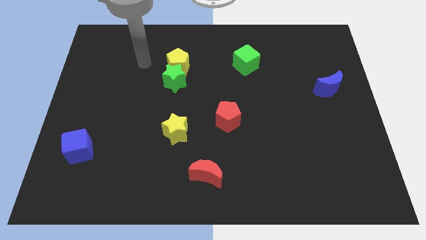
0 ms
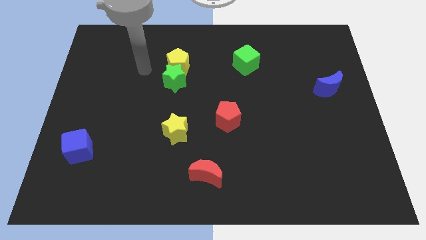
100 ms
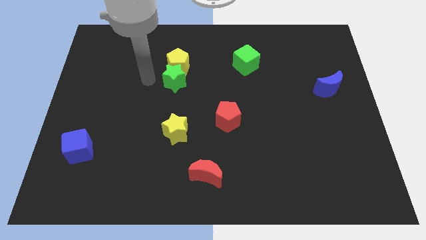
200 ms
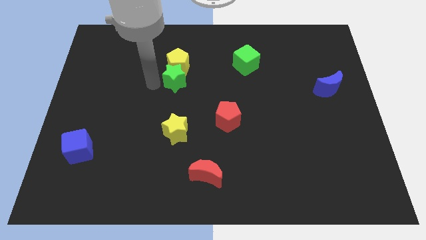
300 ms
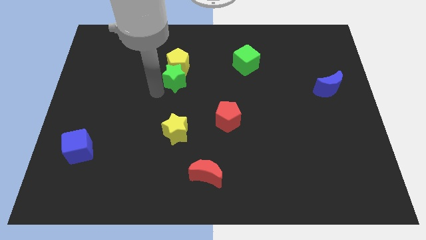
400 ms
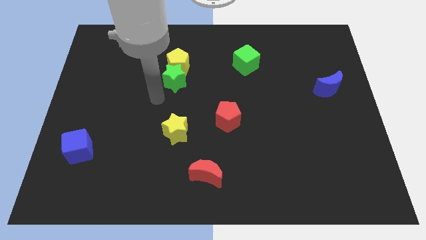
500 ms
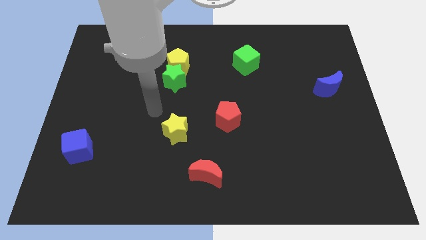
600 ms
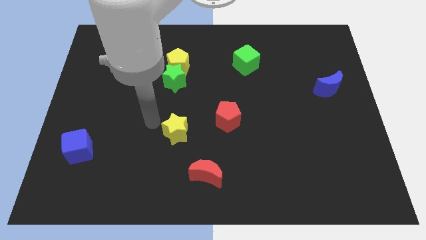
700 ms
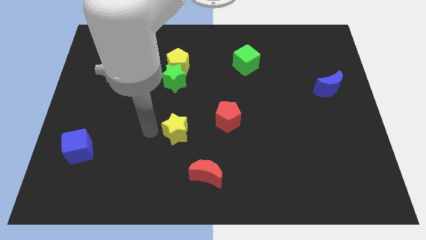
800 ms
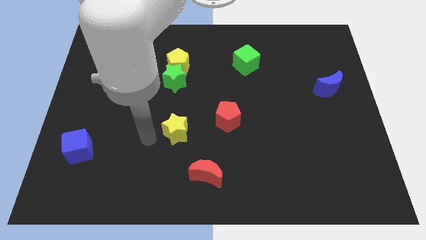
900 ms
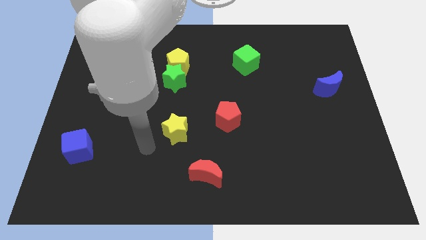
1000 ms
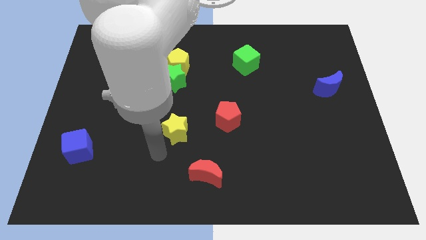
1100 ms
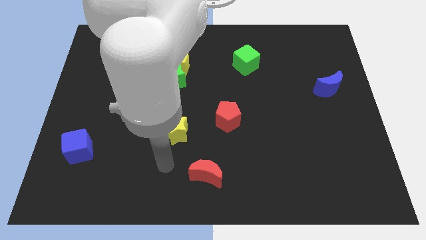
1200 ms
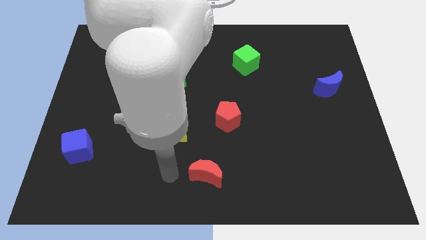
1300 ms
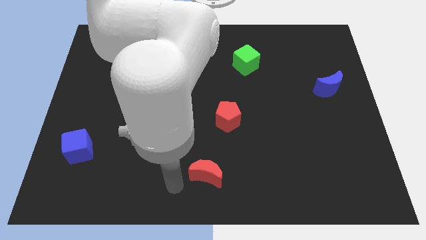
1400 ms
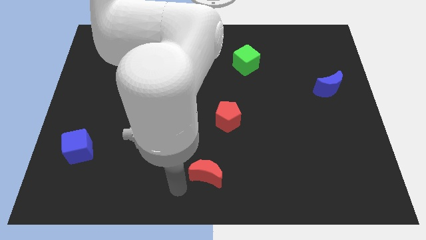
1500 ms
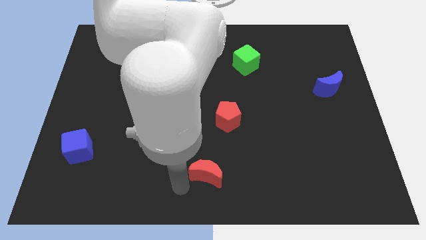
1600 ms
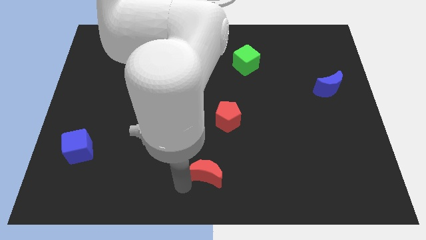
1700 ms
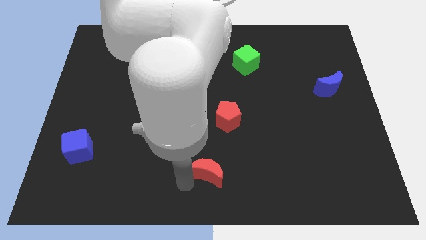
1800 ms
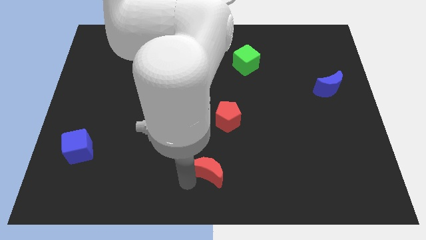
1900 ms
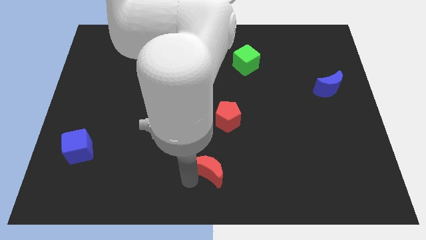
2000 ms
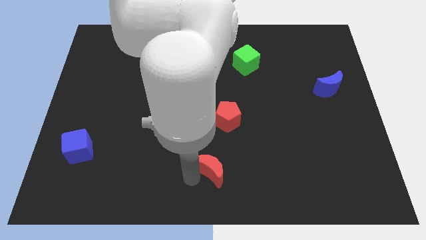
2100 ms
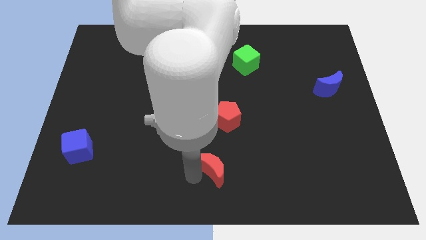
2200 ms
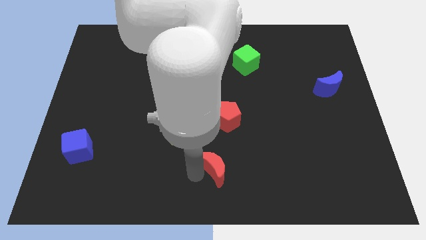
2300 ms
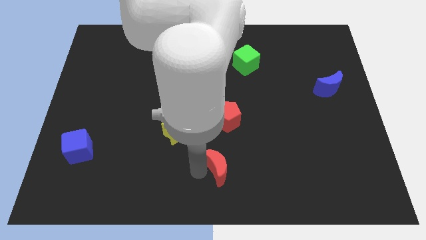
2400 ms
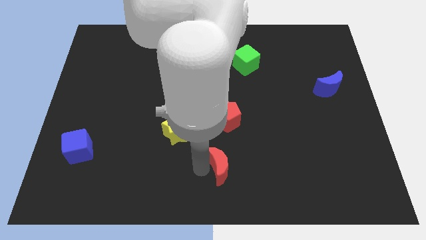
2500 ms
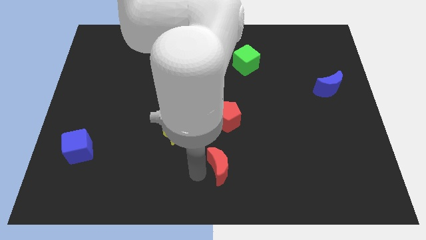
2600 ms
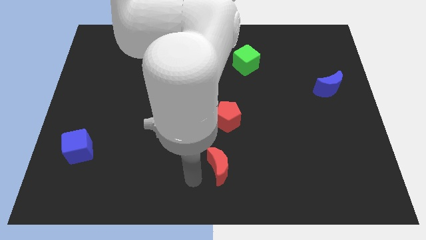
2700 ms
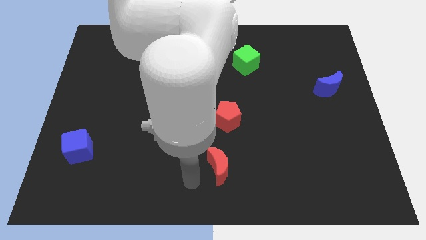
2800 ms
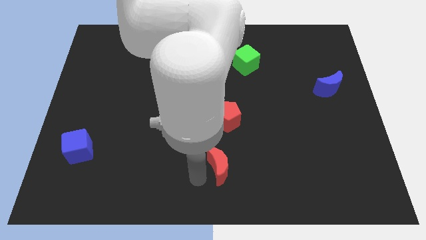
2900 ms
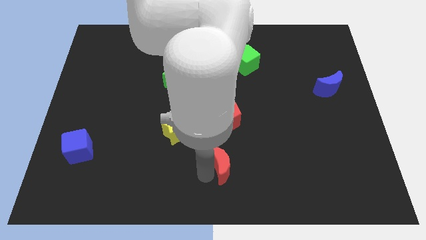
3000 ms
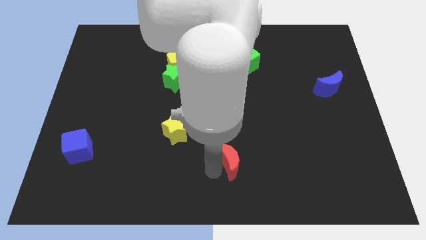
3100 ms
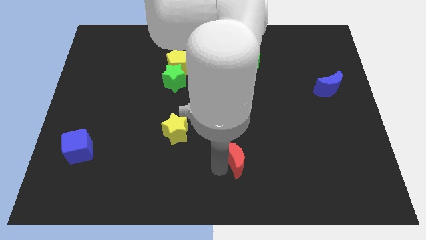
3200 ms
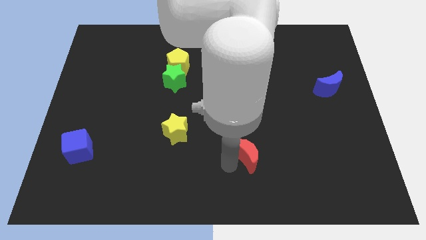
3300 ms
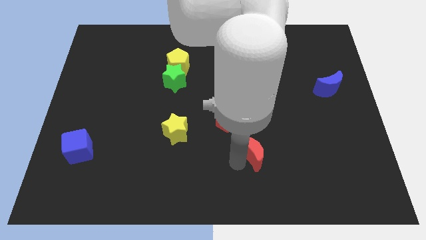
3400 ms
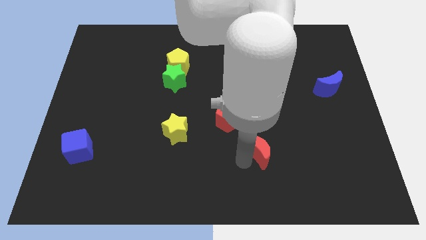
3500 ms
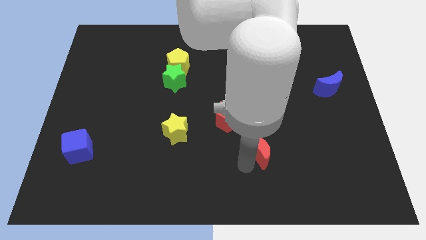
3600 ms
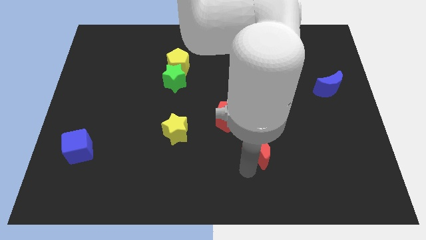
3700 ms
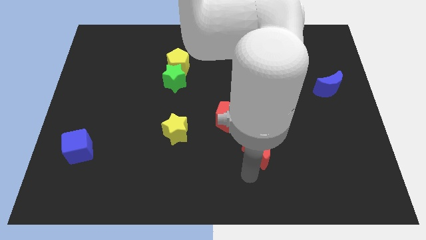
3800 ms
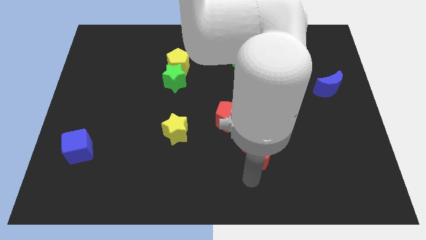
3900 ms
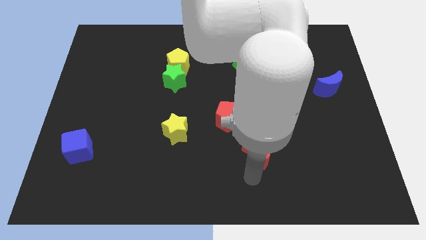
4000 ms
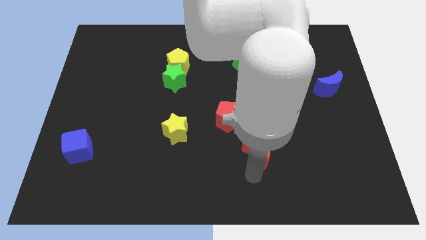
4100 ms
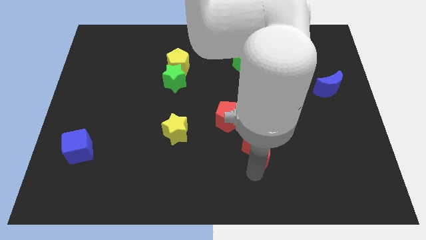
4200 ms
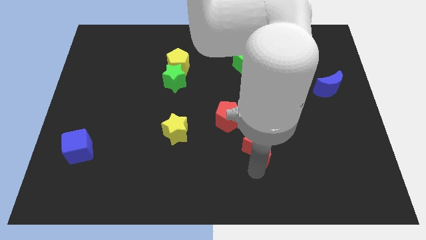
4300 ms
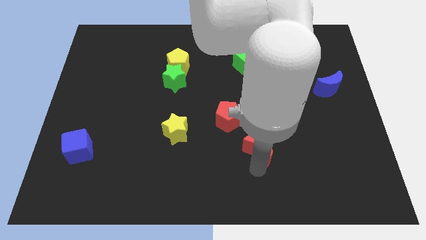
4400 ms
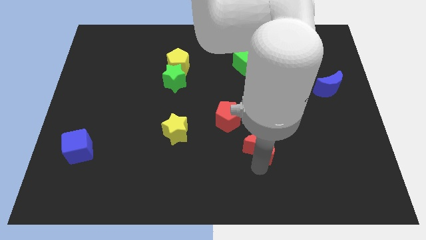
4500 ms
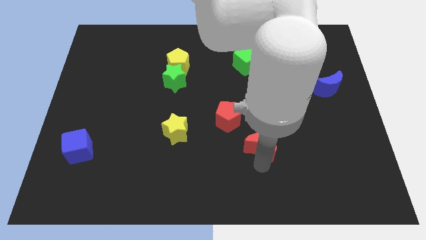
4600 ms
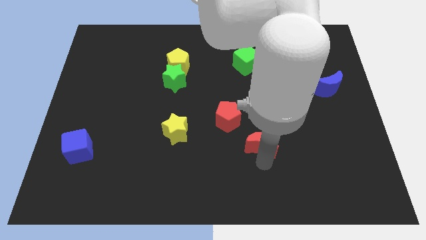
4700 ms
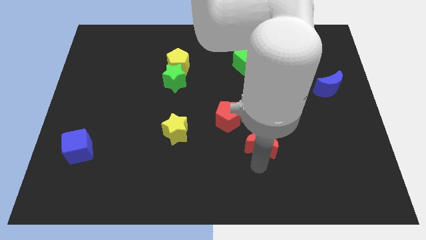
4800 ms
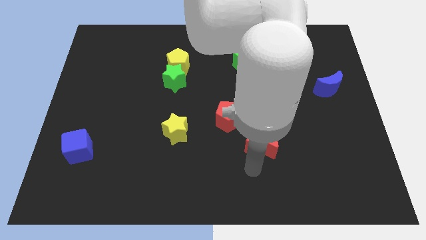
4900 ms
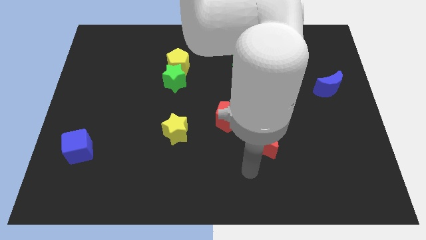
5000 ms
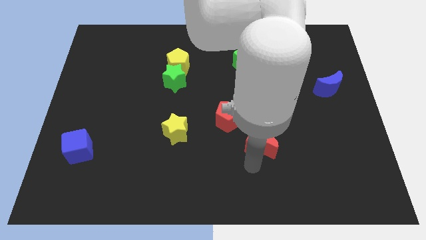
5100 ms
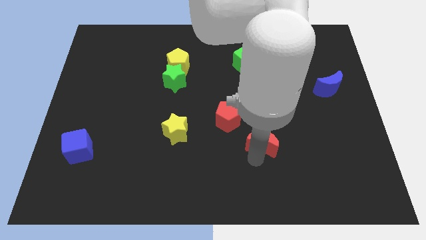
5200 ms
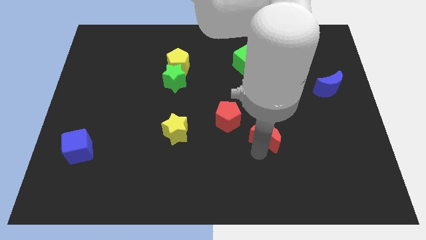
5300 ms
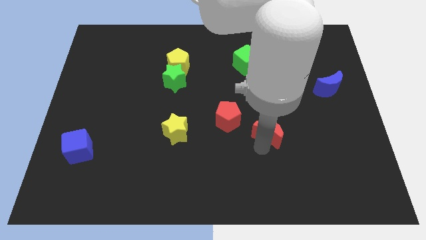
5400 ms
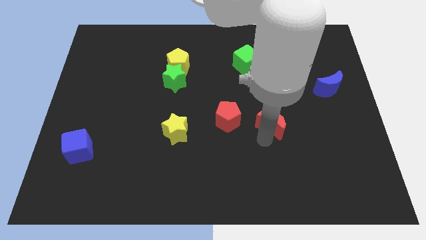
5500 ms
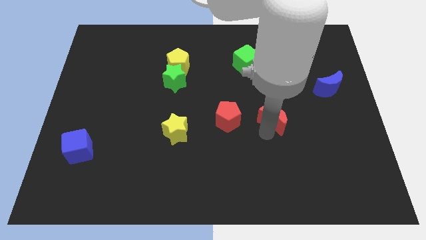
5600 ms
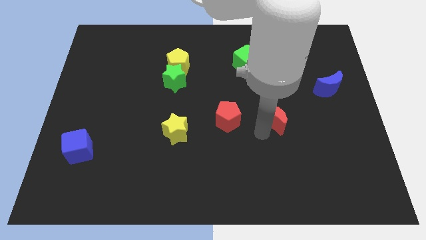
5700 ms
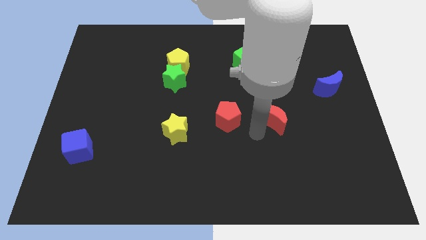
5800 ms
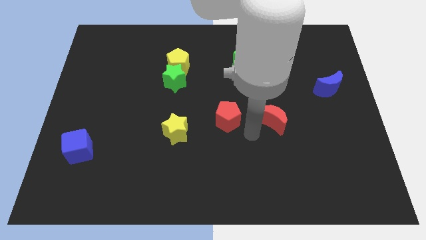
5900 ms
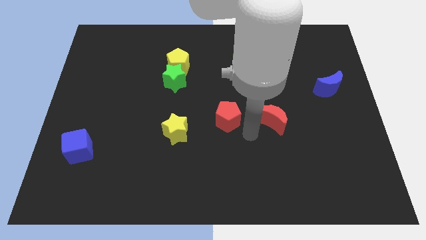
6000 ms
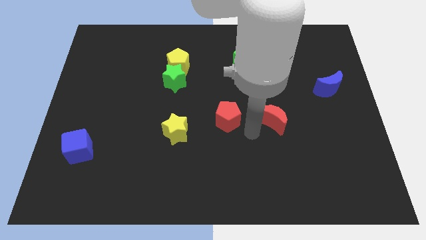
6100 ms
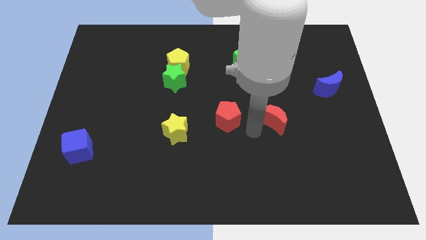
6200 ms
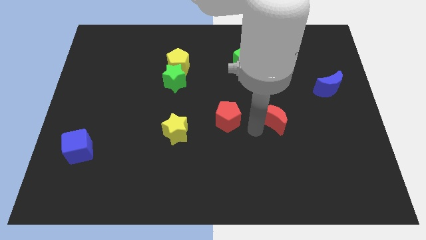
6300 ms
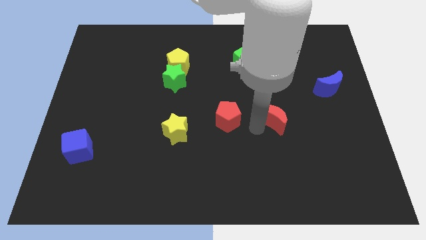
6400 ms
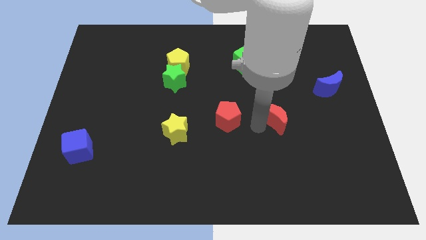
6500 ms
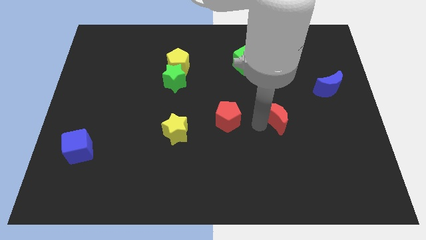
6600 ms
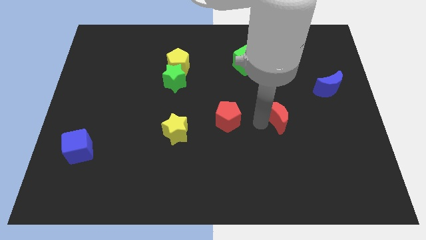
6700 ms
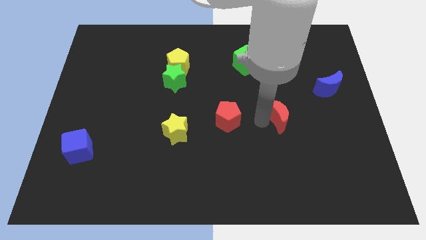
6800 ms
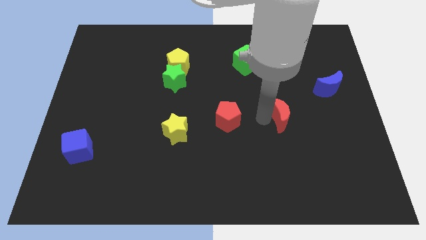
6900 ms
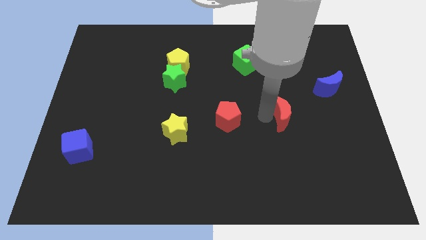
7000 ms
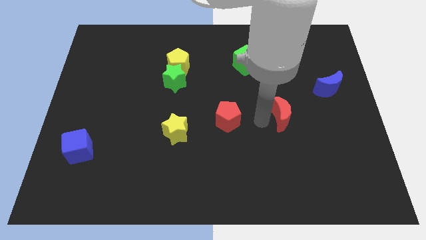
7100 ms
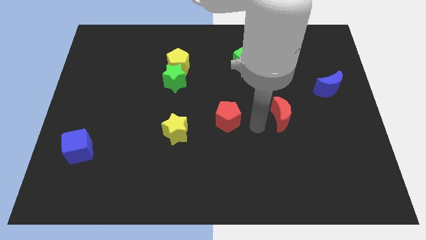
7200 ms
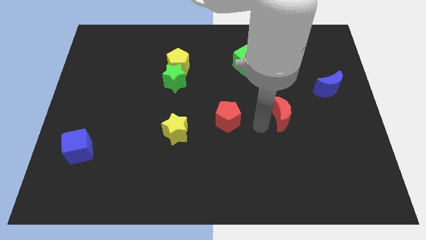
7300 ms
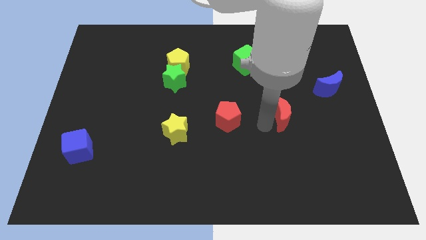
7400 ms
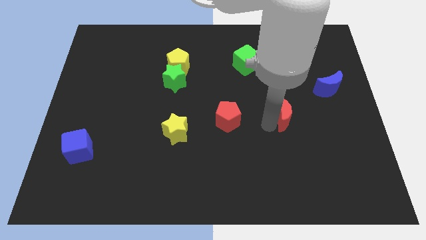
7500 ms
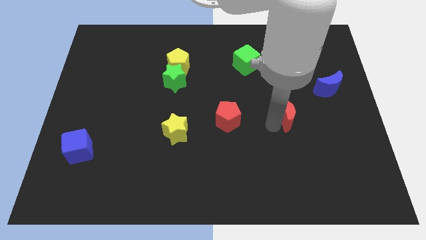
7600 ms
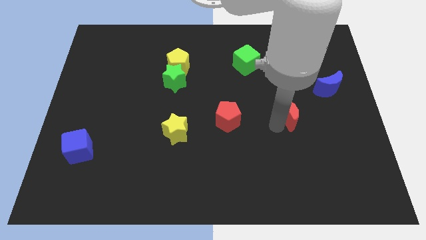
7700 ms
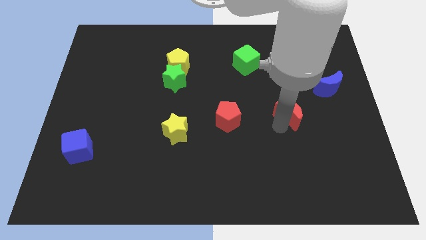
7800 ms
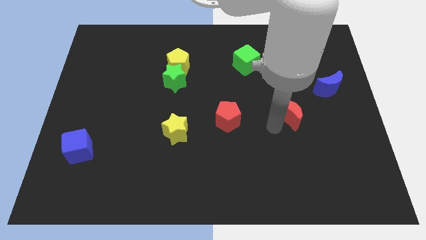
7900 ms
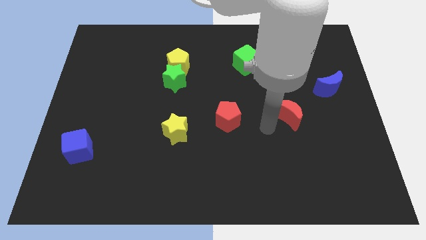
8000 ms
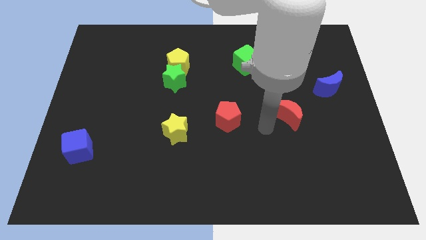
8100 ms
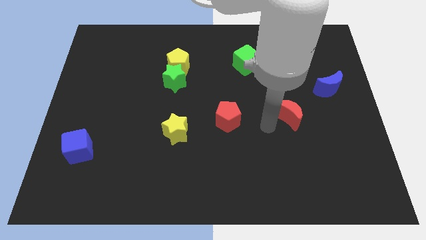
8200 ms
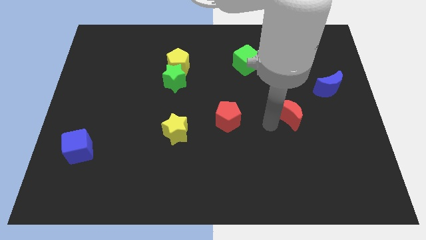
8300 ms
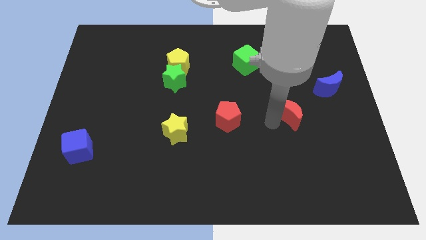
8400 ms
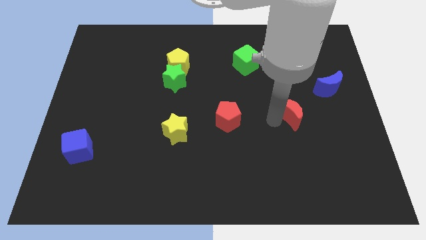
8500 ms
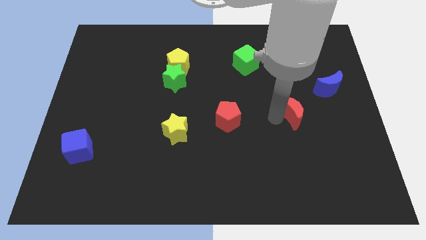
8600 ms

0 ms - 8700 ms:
slide the red moon to the bottom left side of the blue moon
